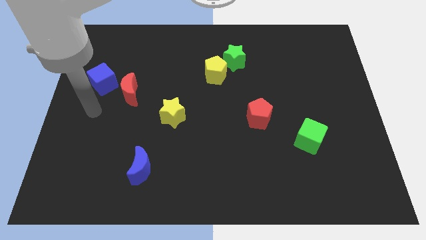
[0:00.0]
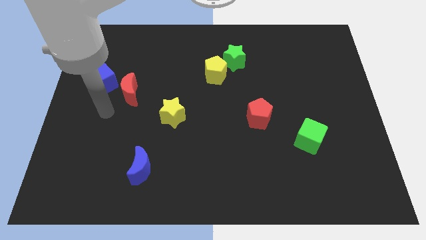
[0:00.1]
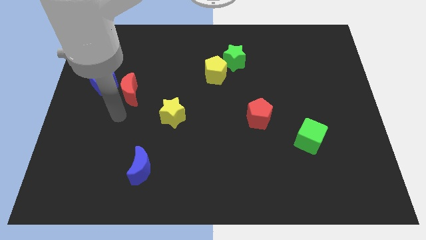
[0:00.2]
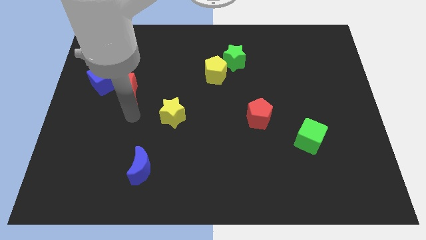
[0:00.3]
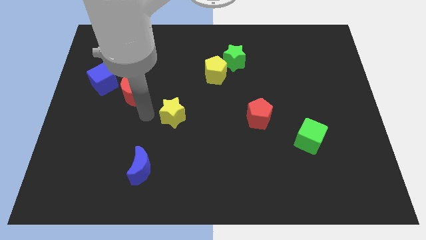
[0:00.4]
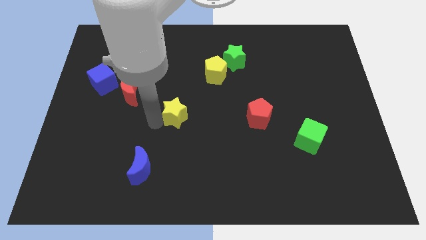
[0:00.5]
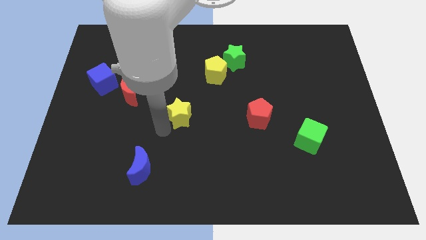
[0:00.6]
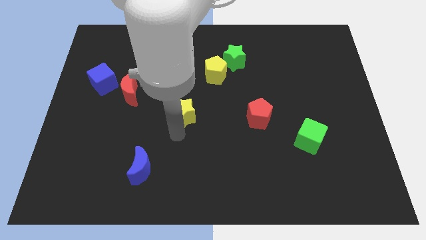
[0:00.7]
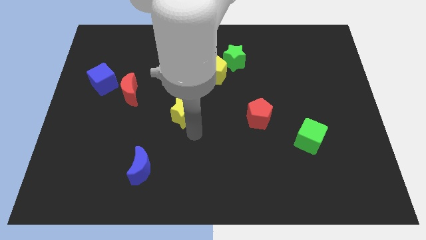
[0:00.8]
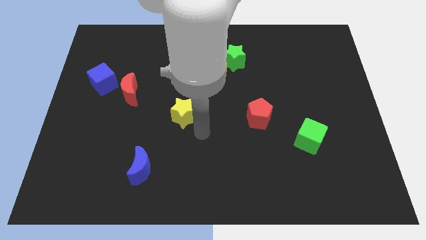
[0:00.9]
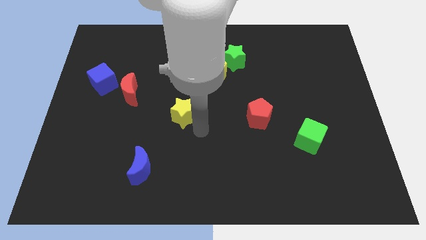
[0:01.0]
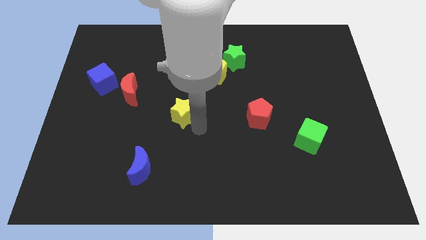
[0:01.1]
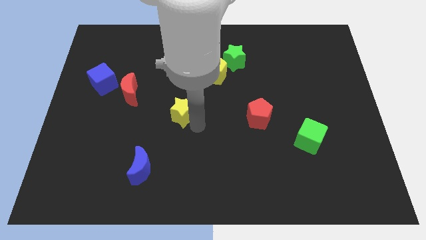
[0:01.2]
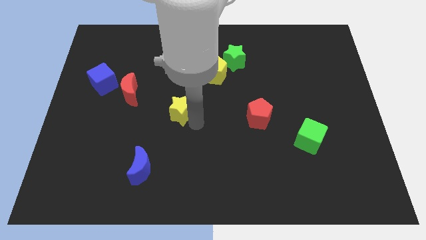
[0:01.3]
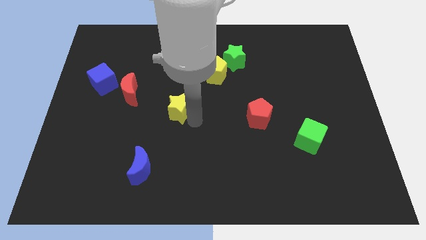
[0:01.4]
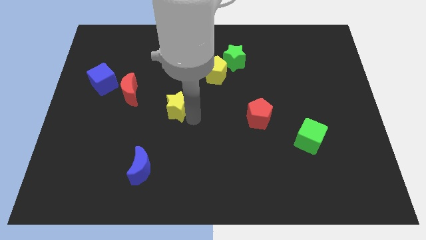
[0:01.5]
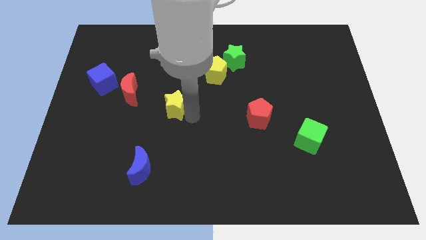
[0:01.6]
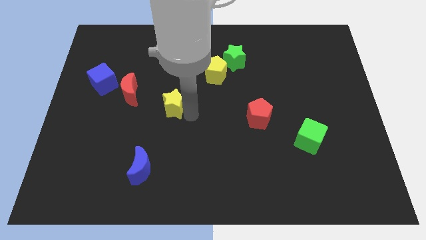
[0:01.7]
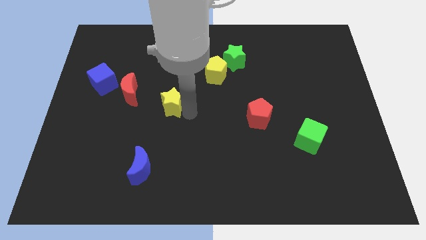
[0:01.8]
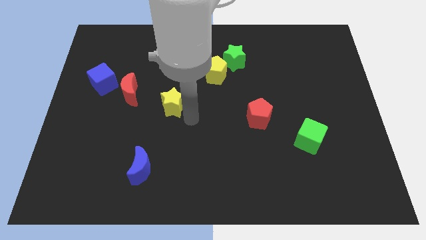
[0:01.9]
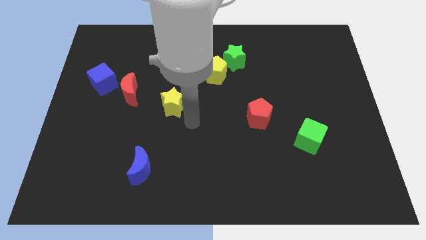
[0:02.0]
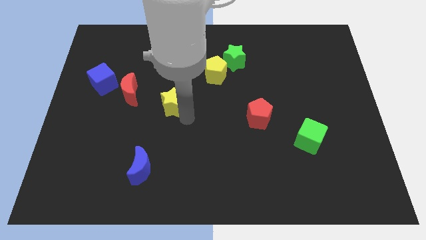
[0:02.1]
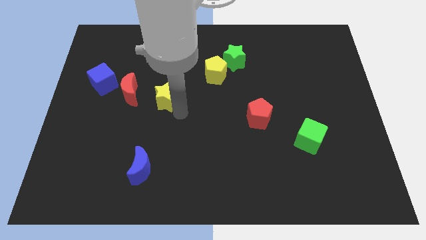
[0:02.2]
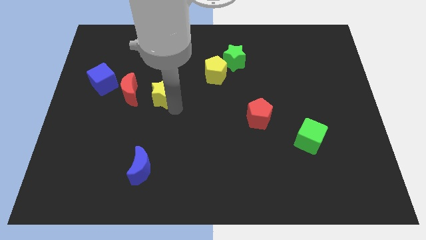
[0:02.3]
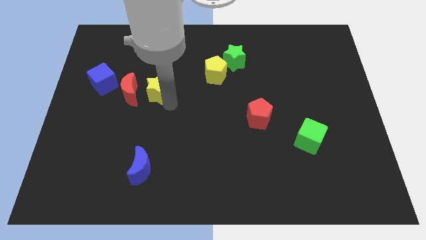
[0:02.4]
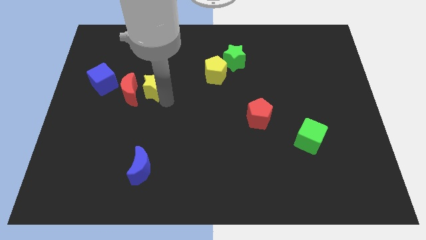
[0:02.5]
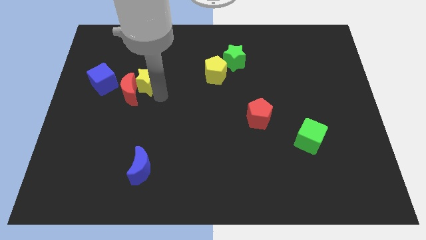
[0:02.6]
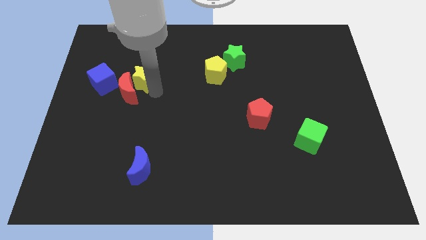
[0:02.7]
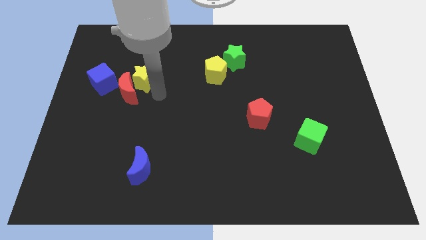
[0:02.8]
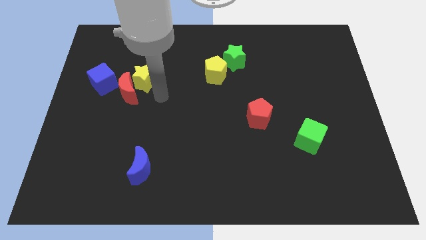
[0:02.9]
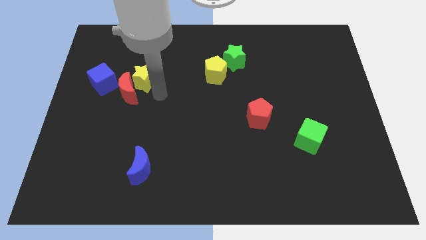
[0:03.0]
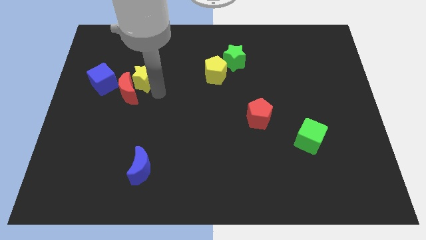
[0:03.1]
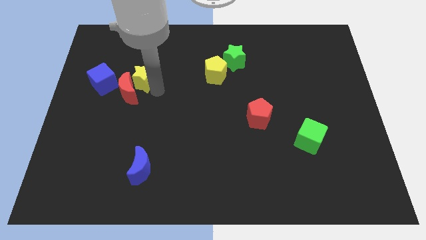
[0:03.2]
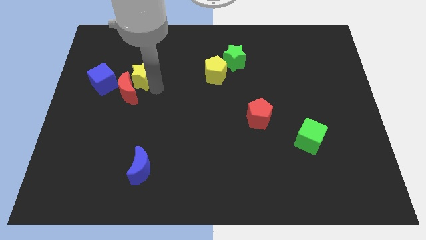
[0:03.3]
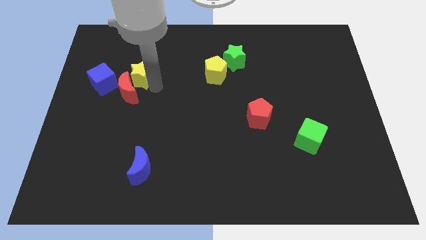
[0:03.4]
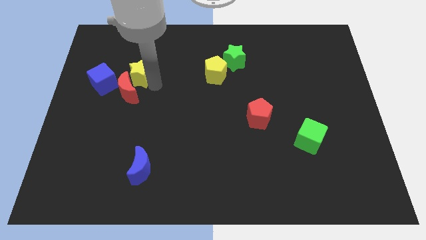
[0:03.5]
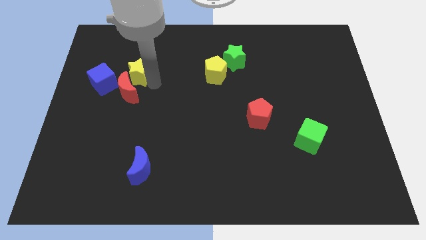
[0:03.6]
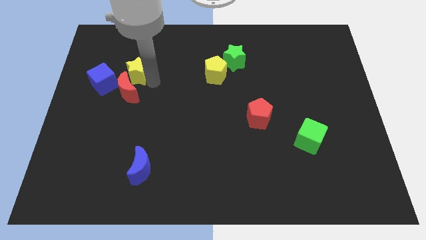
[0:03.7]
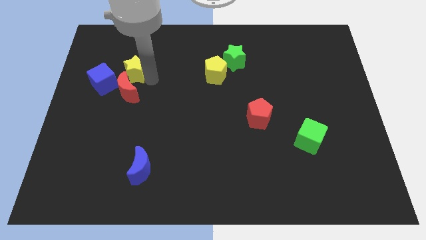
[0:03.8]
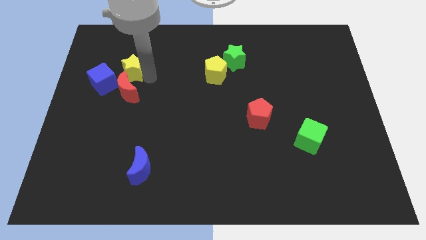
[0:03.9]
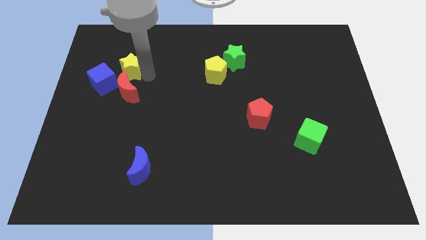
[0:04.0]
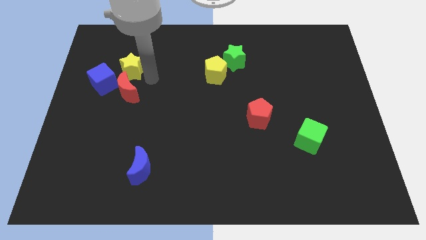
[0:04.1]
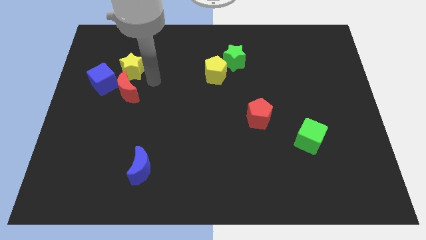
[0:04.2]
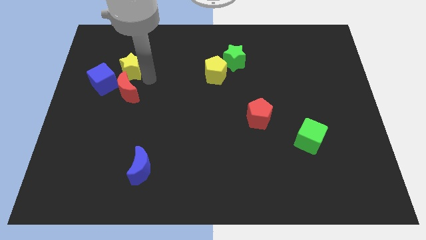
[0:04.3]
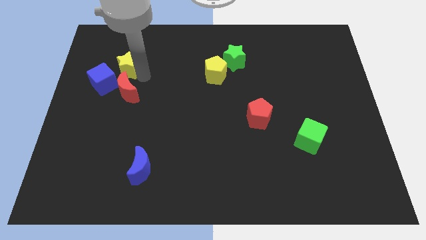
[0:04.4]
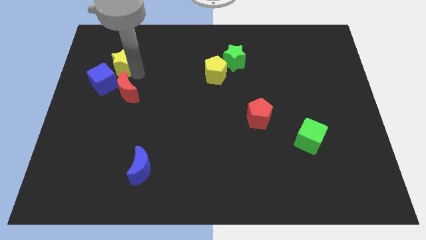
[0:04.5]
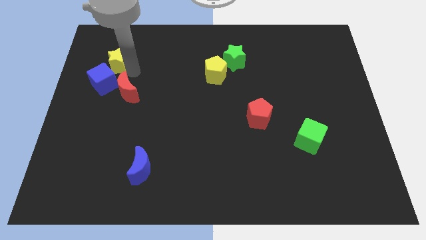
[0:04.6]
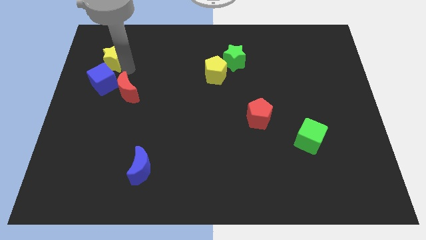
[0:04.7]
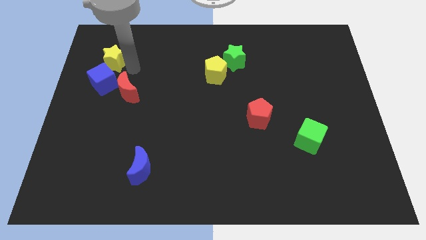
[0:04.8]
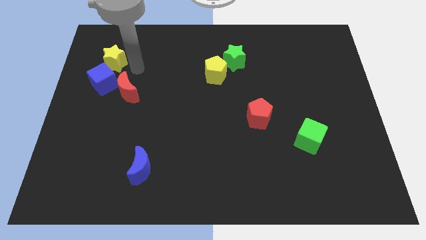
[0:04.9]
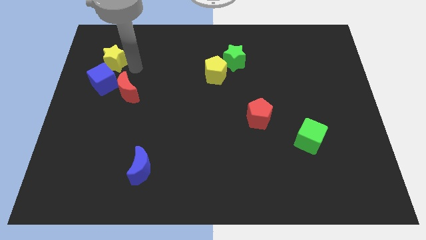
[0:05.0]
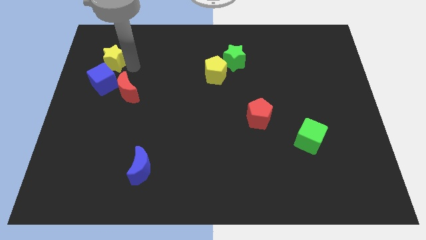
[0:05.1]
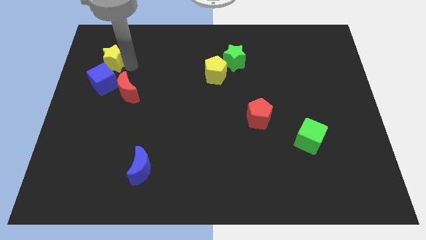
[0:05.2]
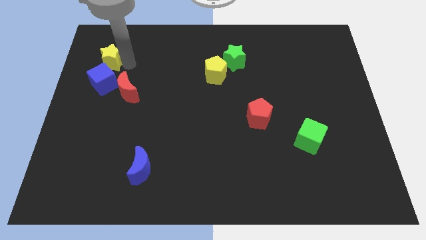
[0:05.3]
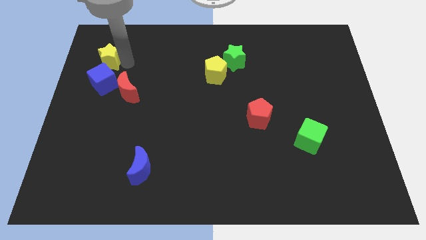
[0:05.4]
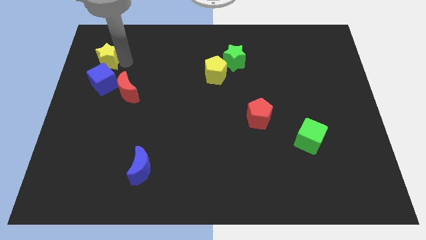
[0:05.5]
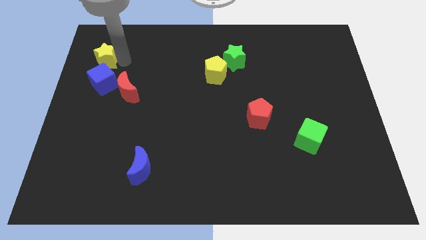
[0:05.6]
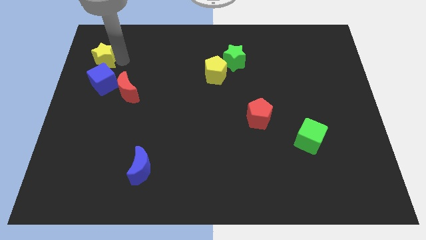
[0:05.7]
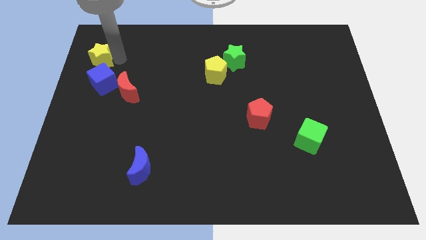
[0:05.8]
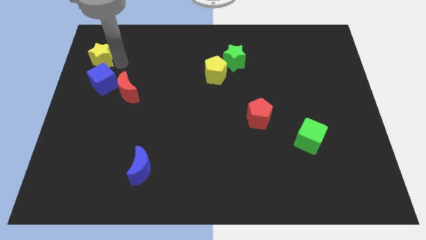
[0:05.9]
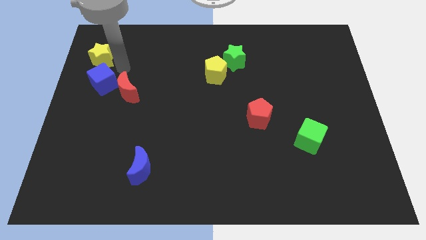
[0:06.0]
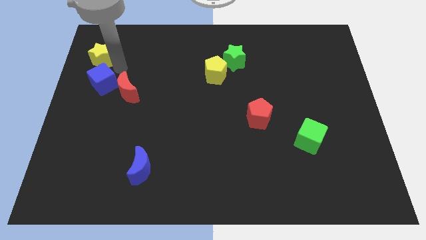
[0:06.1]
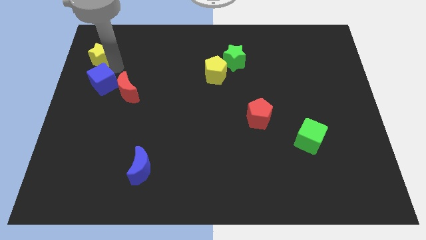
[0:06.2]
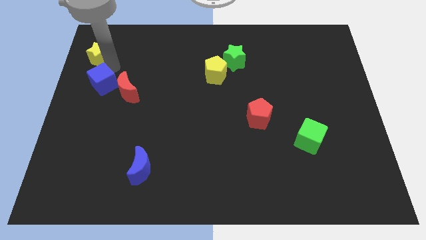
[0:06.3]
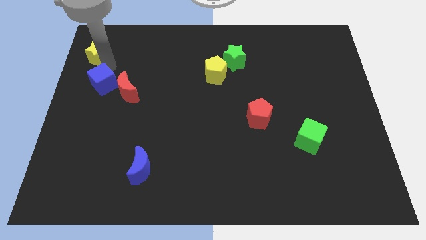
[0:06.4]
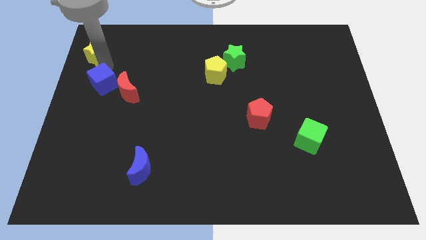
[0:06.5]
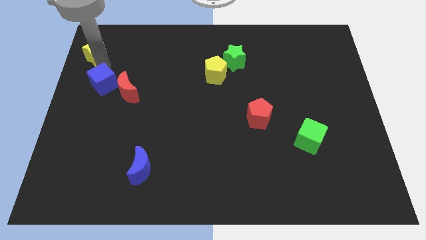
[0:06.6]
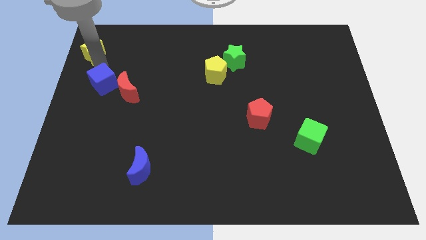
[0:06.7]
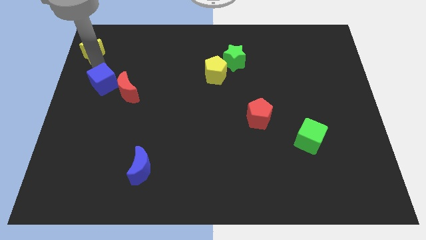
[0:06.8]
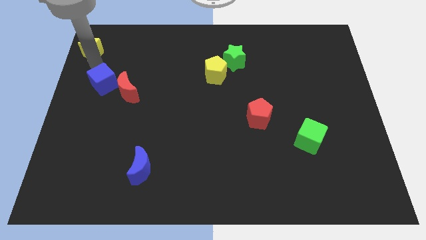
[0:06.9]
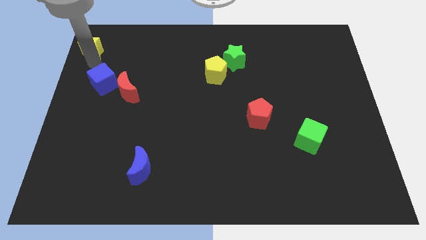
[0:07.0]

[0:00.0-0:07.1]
put the yellow star to the top left corner
